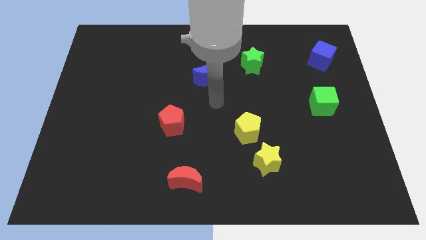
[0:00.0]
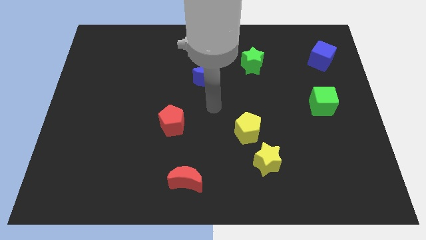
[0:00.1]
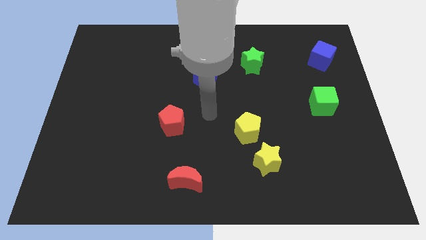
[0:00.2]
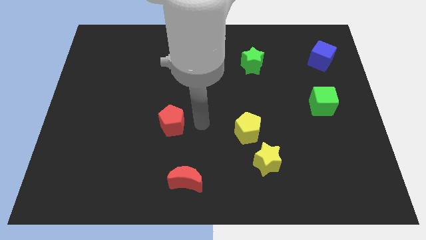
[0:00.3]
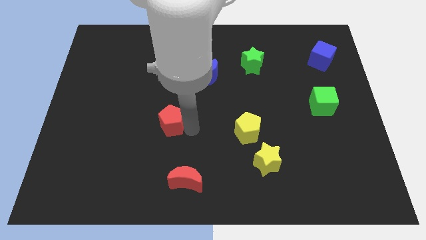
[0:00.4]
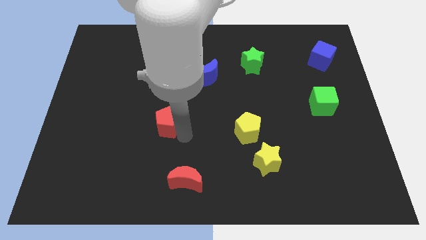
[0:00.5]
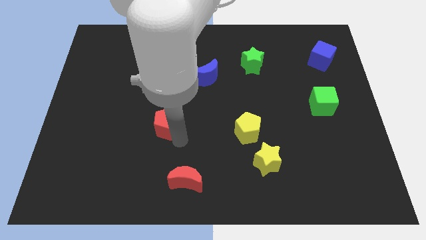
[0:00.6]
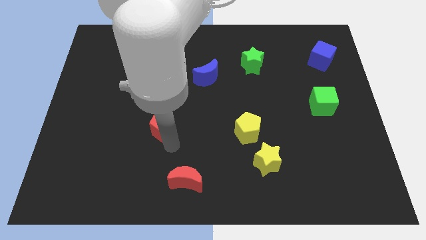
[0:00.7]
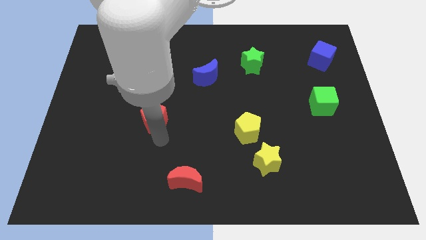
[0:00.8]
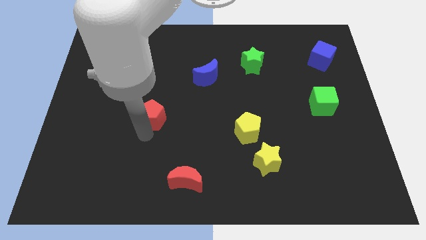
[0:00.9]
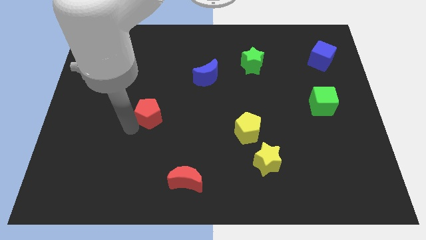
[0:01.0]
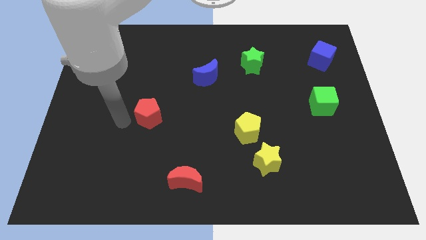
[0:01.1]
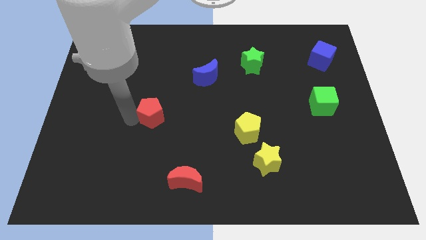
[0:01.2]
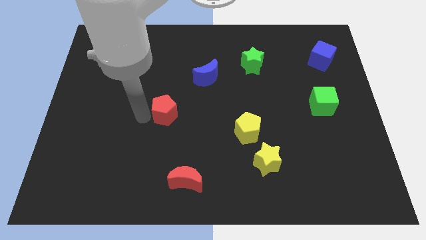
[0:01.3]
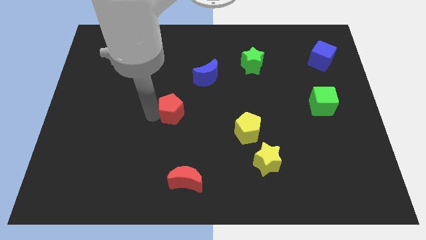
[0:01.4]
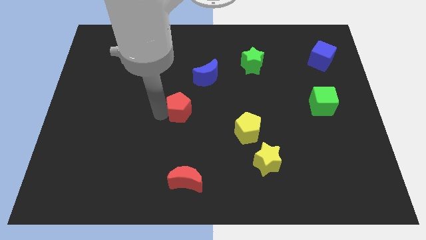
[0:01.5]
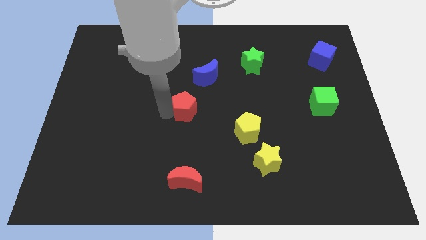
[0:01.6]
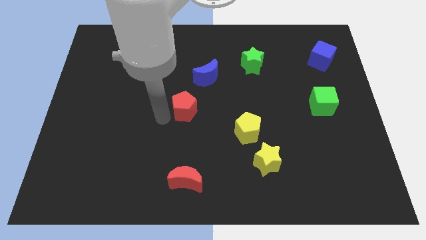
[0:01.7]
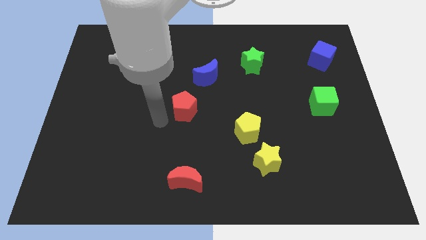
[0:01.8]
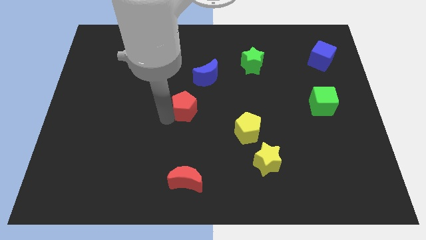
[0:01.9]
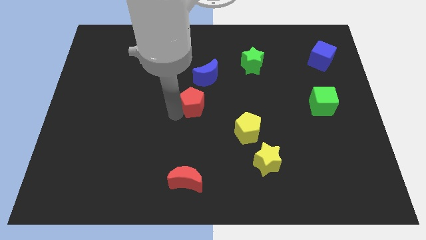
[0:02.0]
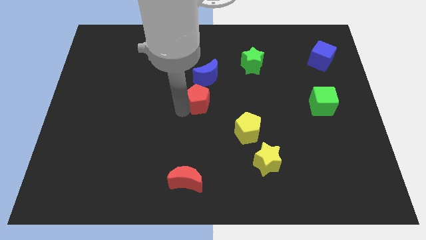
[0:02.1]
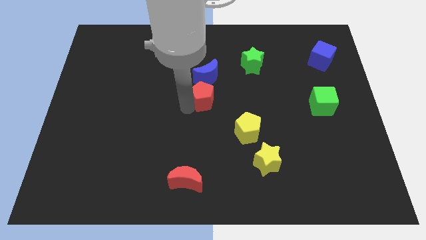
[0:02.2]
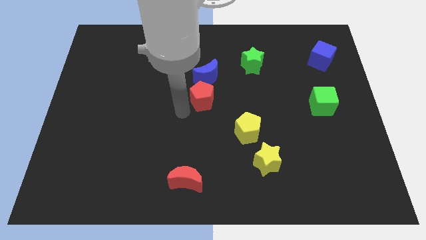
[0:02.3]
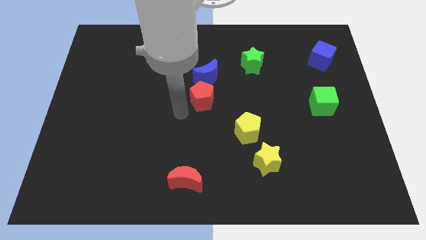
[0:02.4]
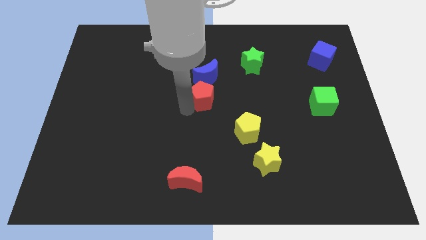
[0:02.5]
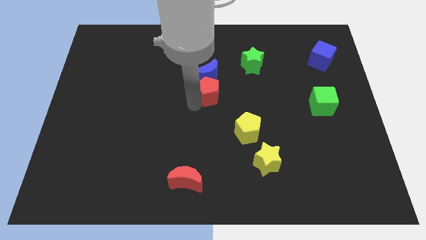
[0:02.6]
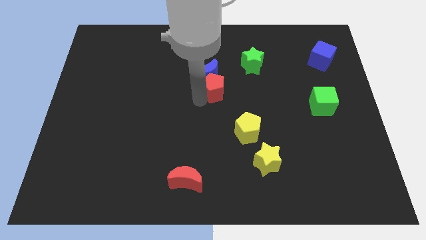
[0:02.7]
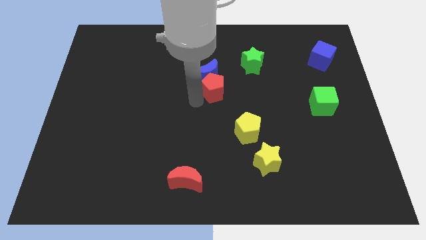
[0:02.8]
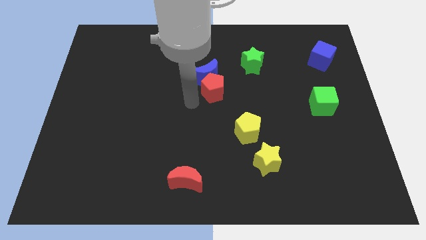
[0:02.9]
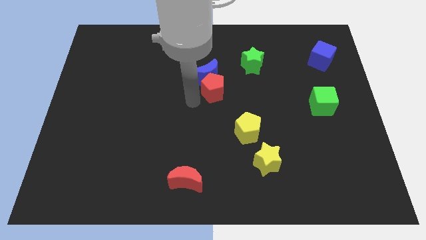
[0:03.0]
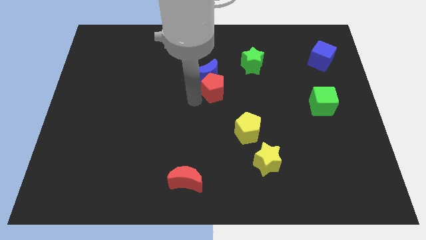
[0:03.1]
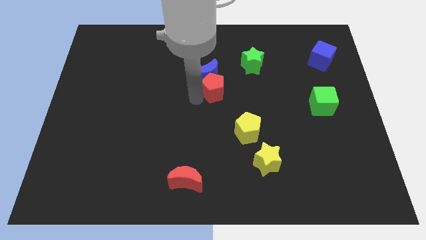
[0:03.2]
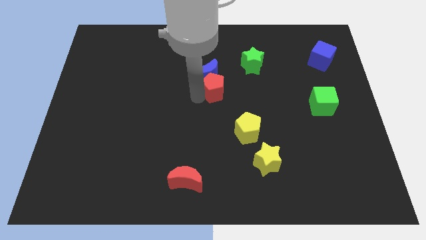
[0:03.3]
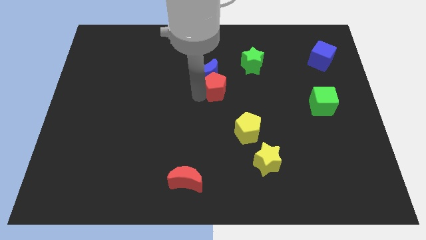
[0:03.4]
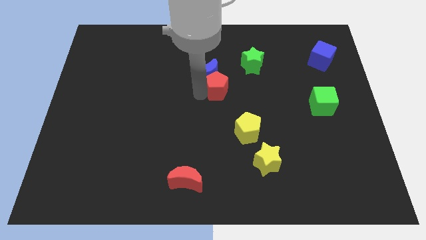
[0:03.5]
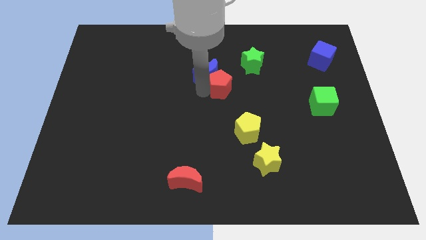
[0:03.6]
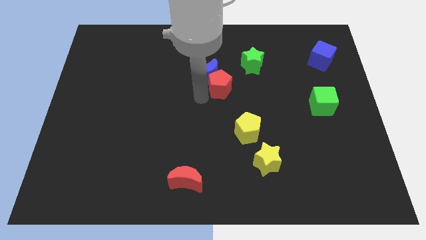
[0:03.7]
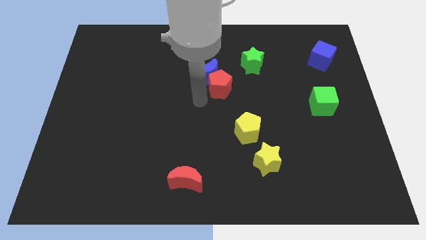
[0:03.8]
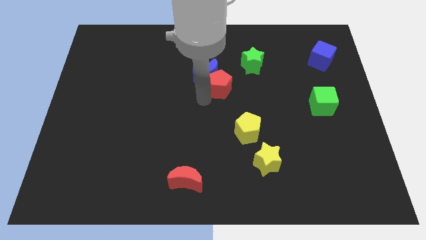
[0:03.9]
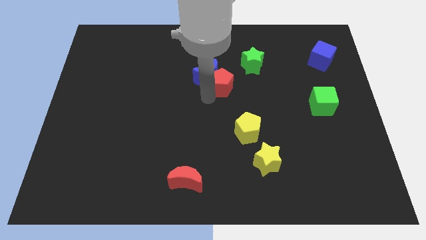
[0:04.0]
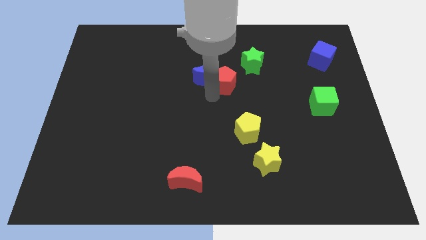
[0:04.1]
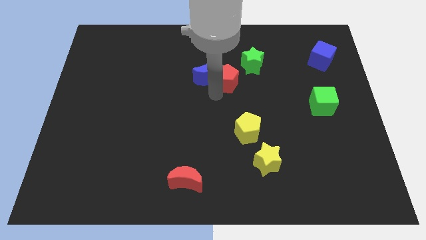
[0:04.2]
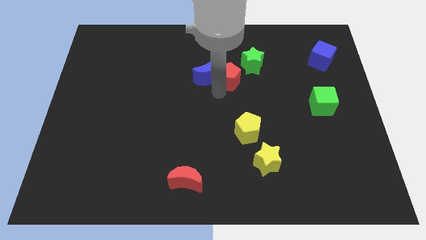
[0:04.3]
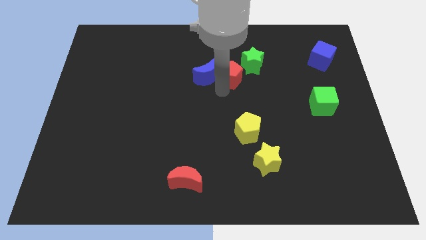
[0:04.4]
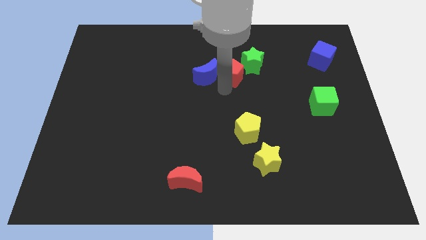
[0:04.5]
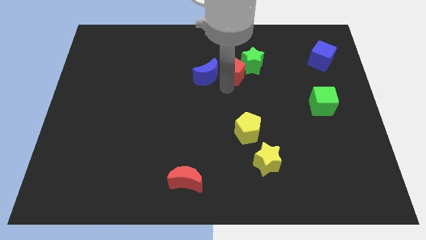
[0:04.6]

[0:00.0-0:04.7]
move the red pentagon next to the green star

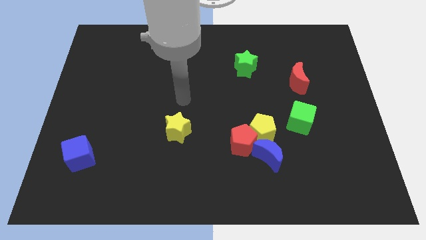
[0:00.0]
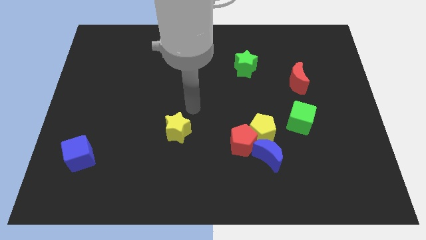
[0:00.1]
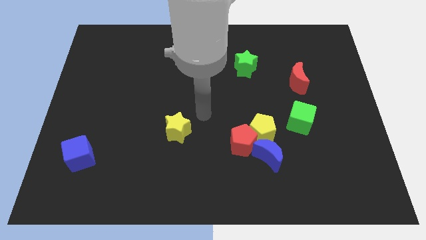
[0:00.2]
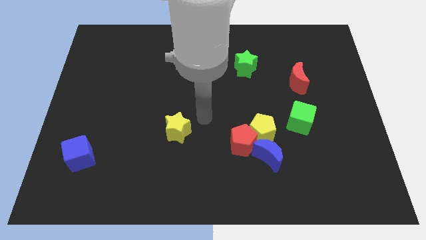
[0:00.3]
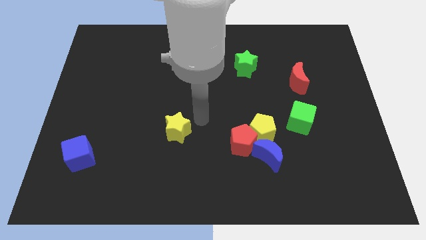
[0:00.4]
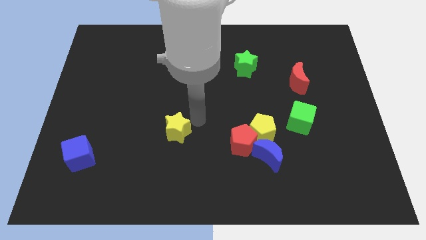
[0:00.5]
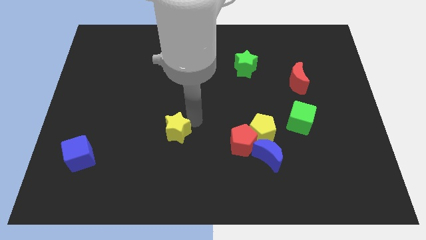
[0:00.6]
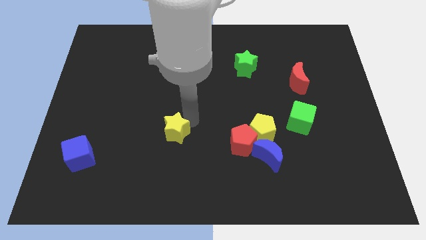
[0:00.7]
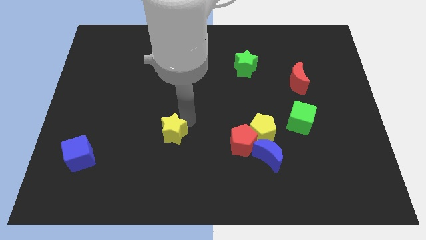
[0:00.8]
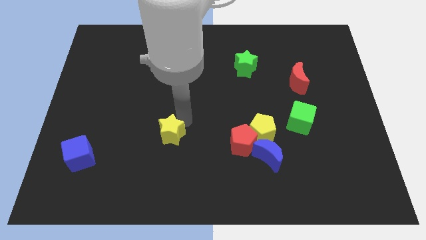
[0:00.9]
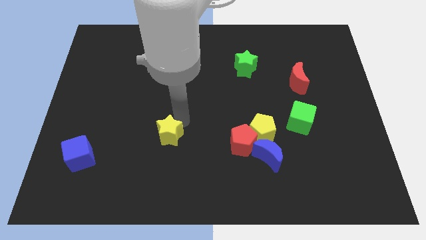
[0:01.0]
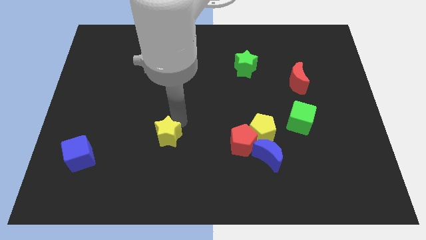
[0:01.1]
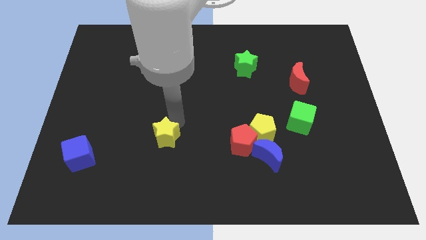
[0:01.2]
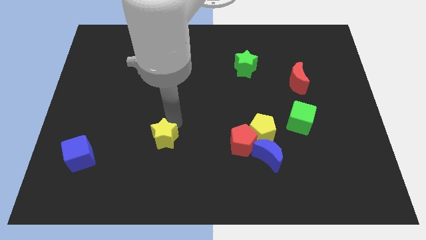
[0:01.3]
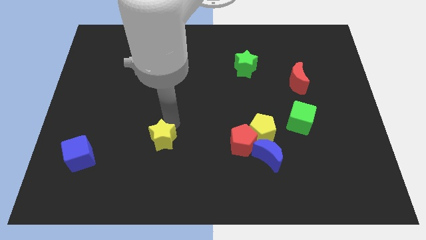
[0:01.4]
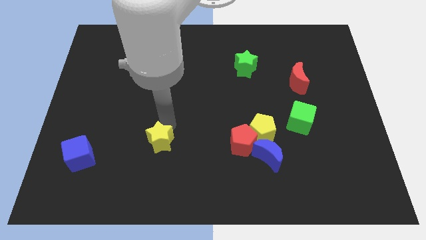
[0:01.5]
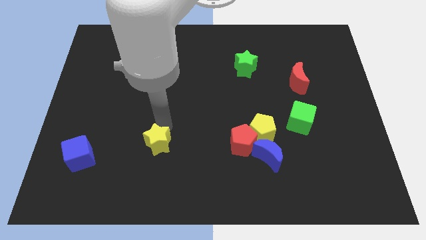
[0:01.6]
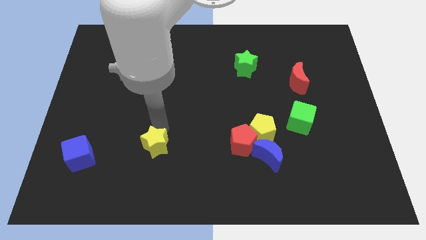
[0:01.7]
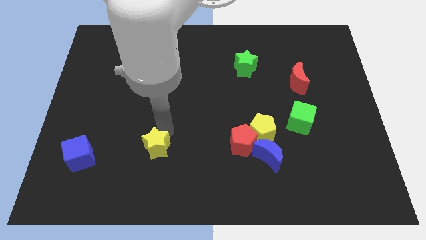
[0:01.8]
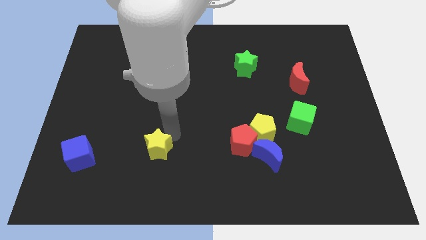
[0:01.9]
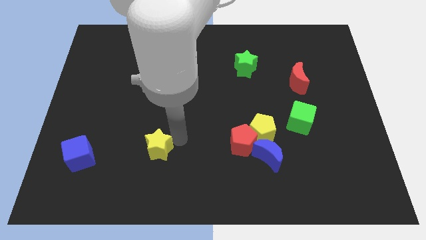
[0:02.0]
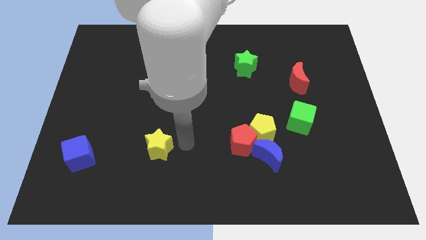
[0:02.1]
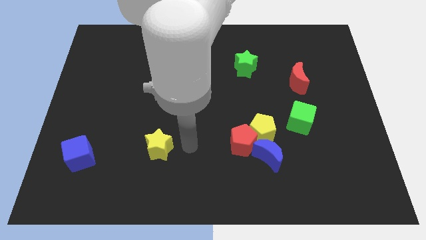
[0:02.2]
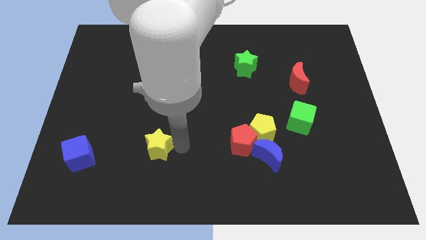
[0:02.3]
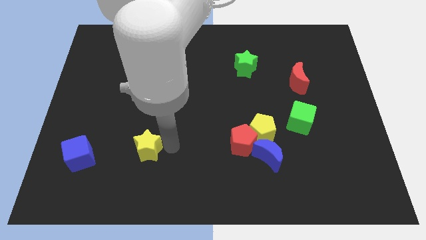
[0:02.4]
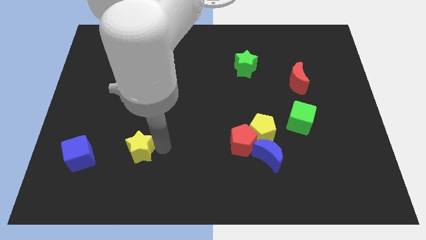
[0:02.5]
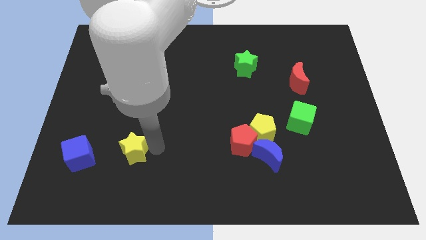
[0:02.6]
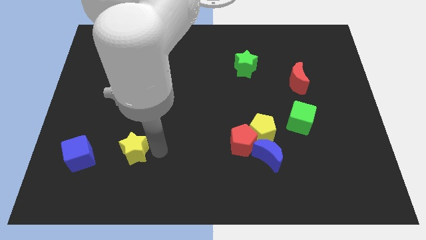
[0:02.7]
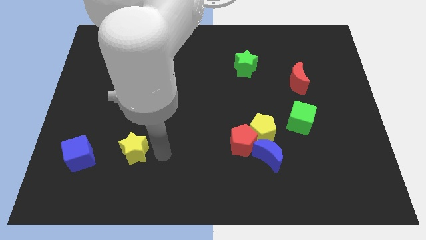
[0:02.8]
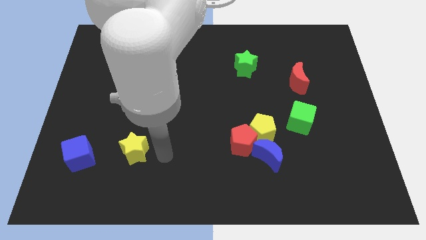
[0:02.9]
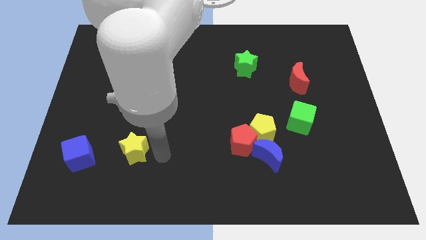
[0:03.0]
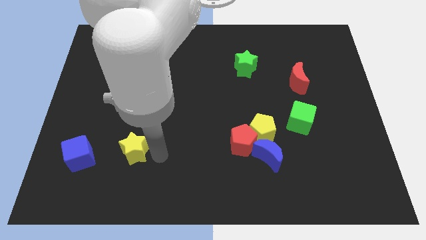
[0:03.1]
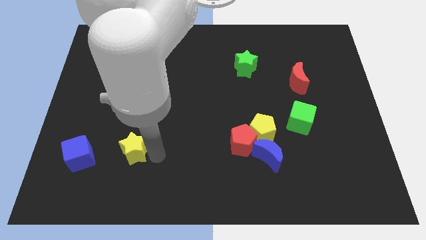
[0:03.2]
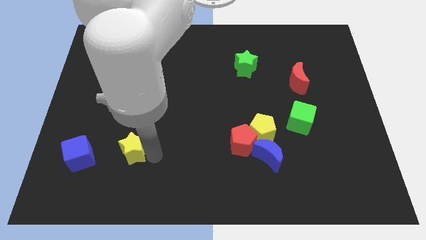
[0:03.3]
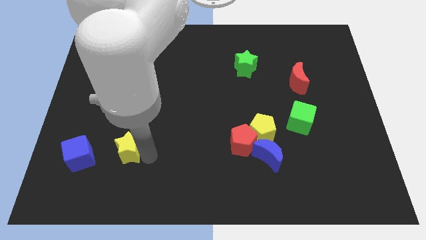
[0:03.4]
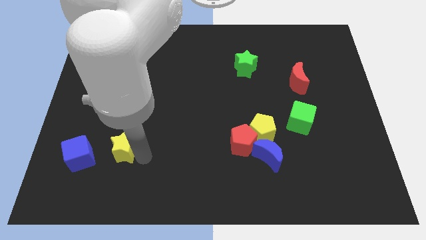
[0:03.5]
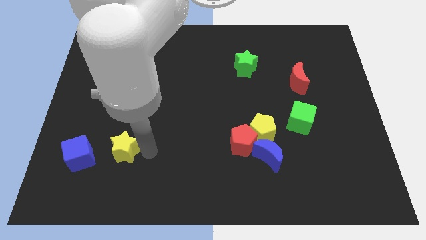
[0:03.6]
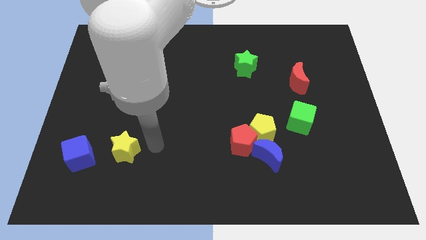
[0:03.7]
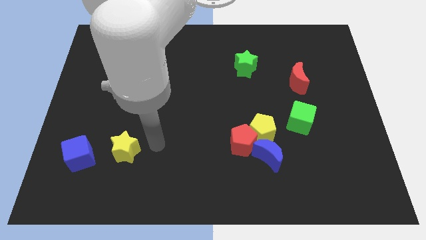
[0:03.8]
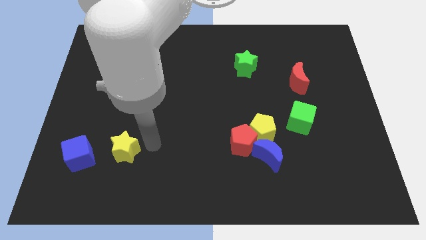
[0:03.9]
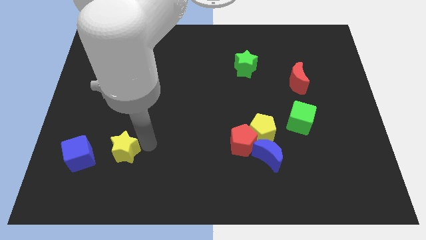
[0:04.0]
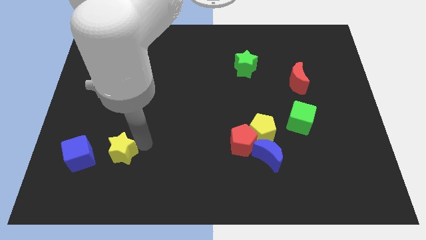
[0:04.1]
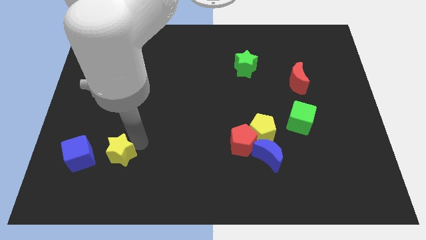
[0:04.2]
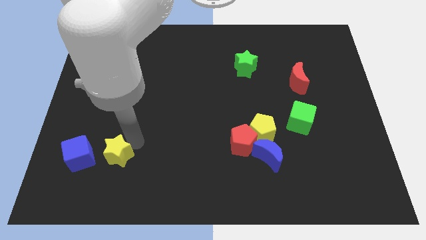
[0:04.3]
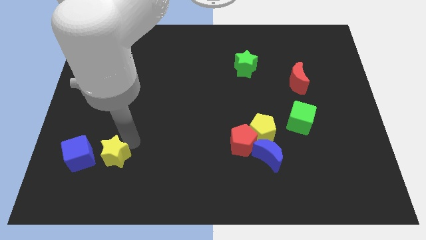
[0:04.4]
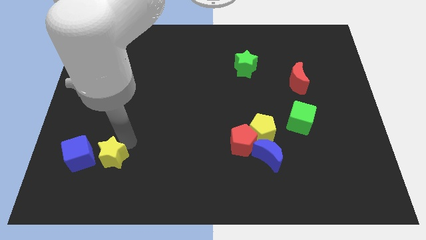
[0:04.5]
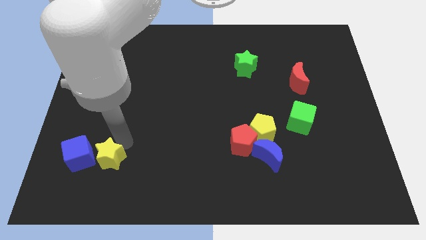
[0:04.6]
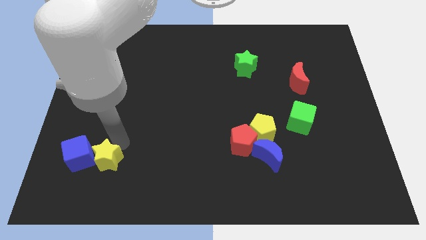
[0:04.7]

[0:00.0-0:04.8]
slide the yellow star towards the blue cube
